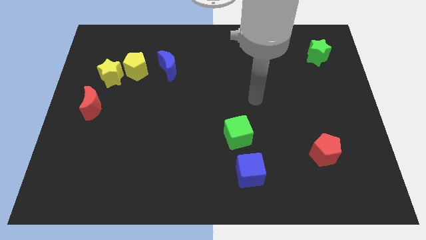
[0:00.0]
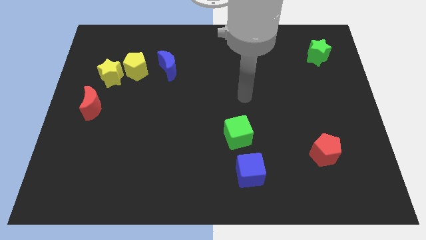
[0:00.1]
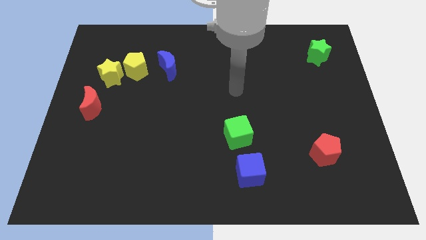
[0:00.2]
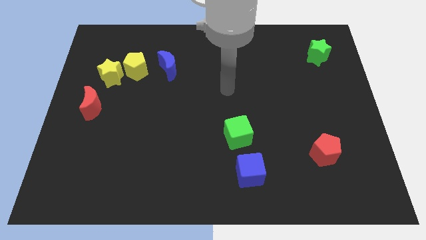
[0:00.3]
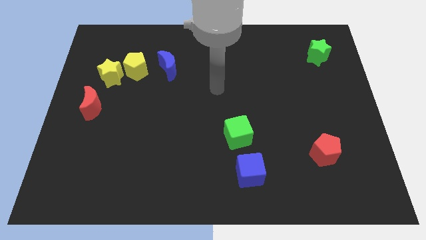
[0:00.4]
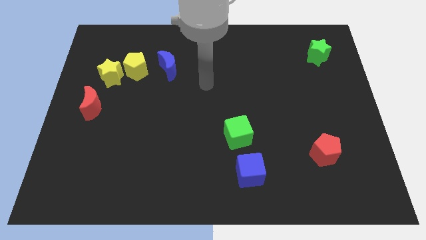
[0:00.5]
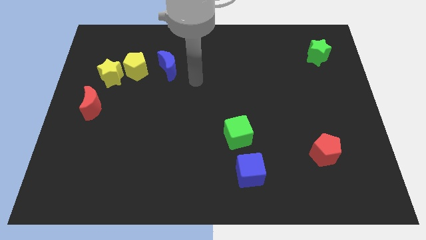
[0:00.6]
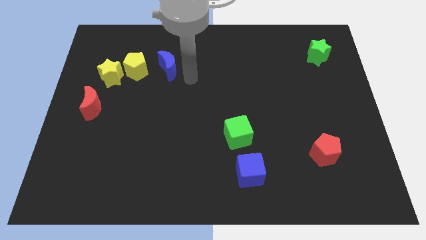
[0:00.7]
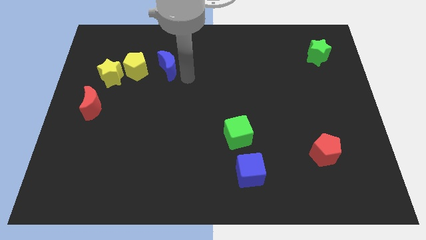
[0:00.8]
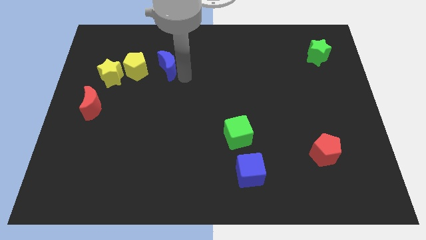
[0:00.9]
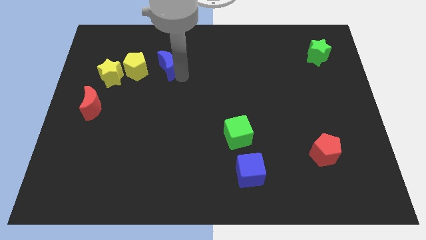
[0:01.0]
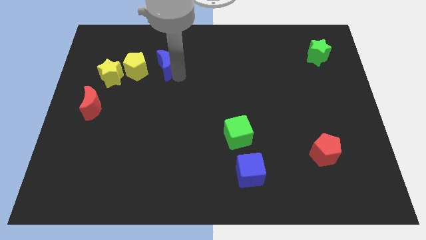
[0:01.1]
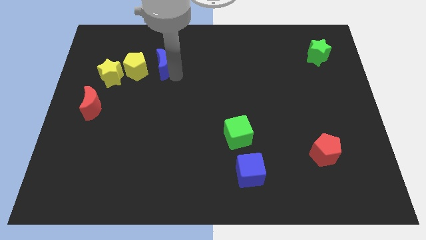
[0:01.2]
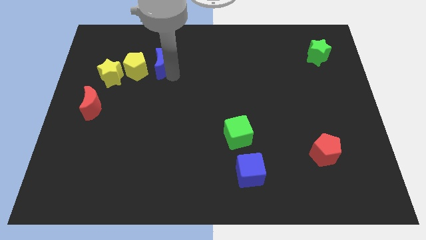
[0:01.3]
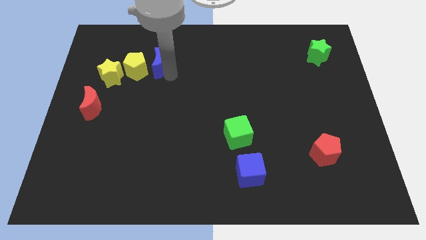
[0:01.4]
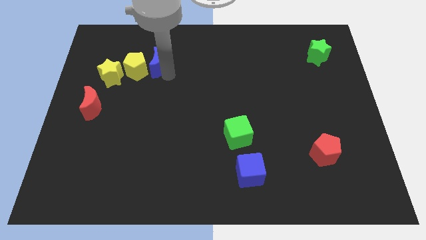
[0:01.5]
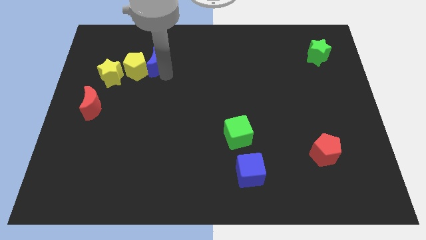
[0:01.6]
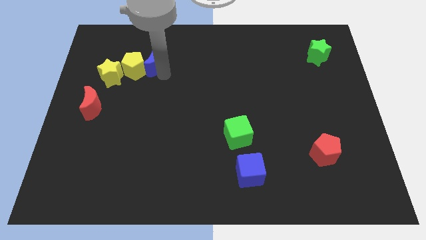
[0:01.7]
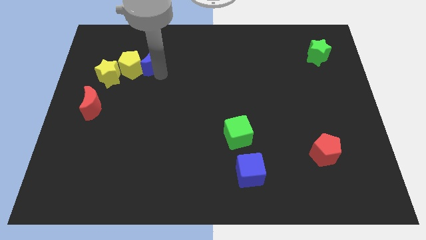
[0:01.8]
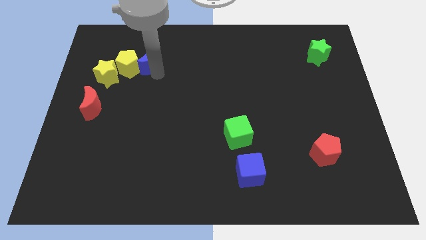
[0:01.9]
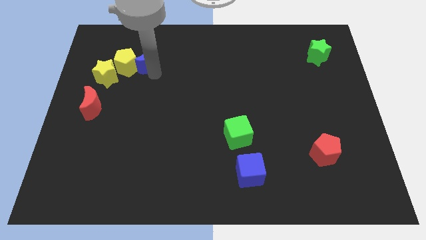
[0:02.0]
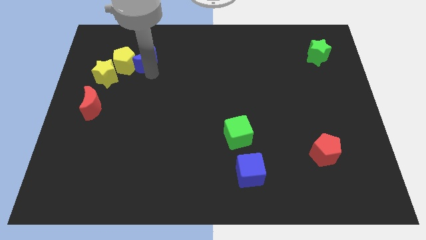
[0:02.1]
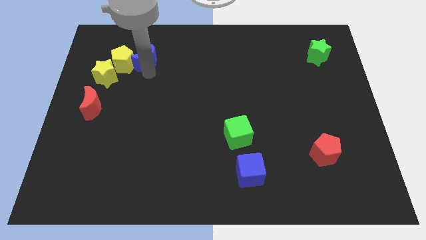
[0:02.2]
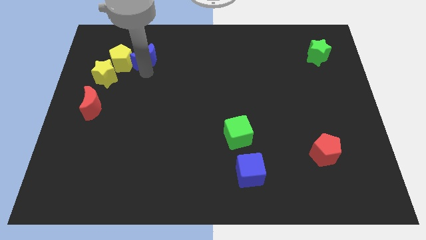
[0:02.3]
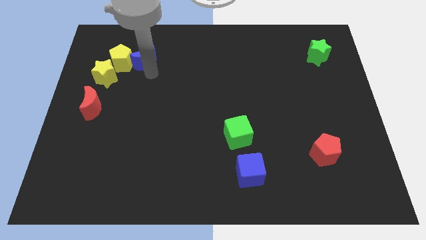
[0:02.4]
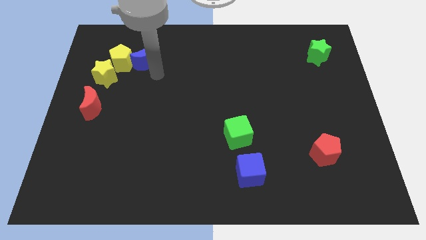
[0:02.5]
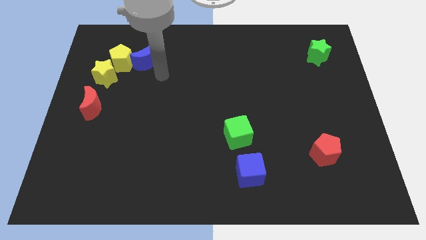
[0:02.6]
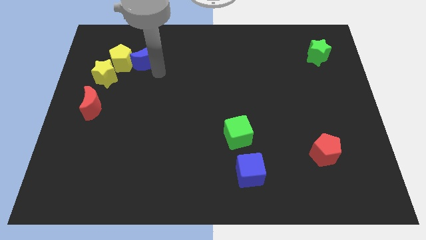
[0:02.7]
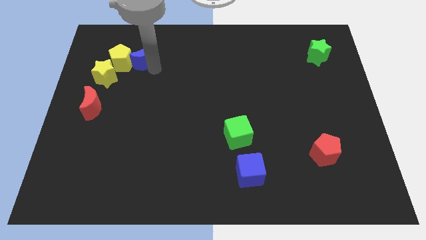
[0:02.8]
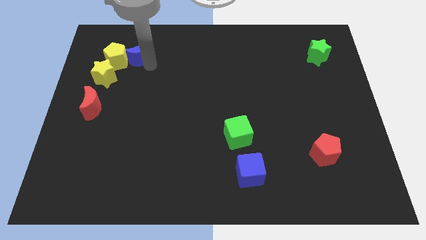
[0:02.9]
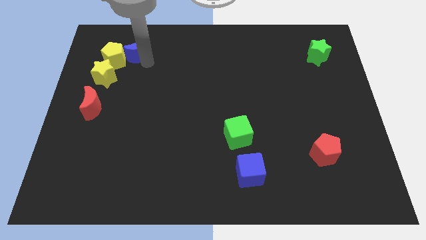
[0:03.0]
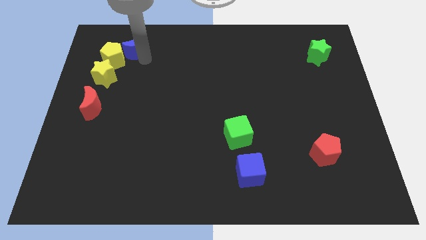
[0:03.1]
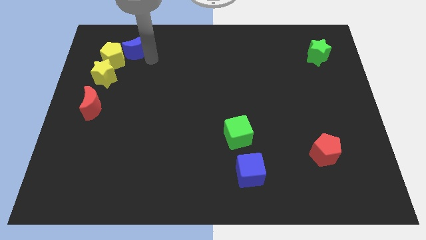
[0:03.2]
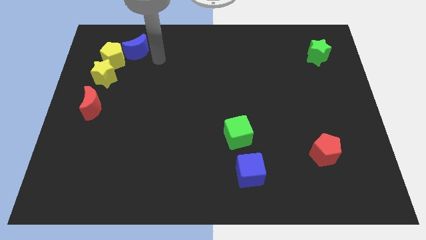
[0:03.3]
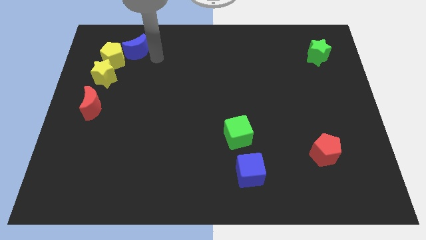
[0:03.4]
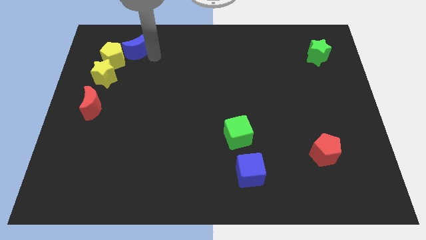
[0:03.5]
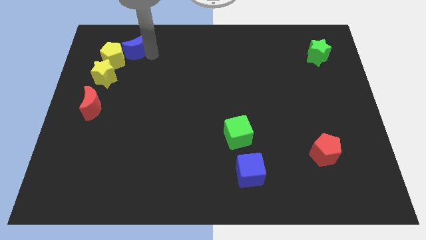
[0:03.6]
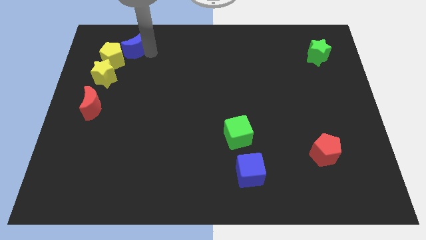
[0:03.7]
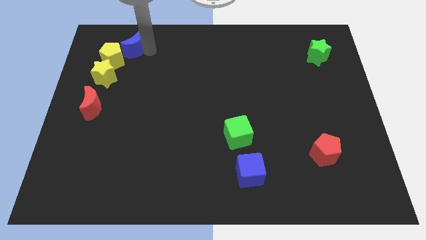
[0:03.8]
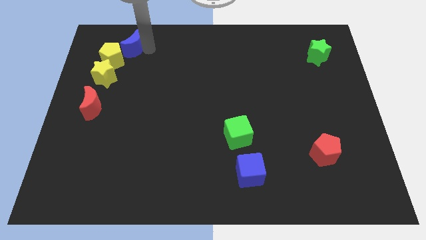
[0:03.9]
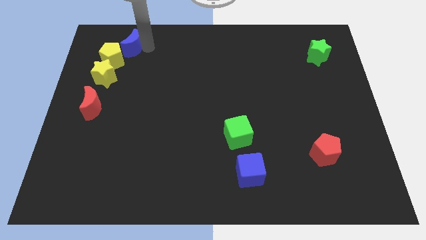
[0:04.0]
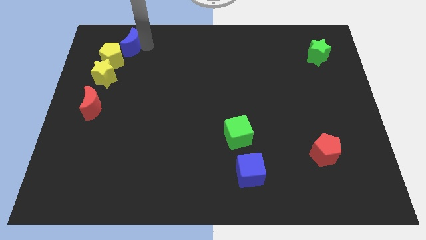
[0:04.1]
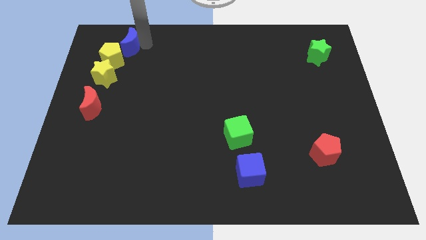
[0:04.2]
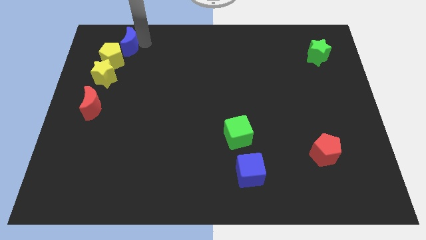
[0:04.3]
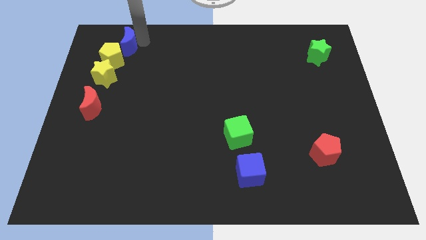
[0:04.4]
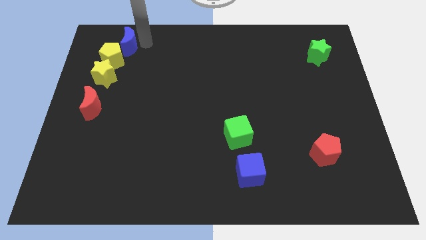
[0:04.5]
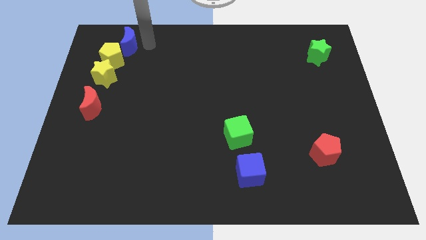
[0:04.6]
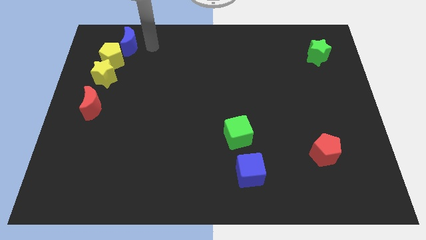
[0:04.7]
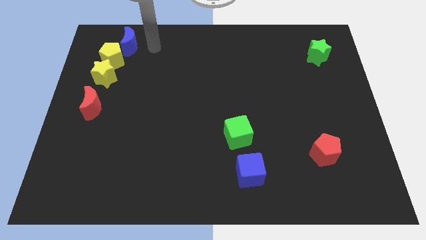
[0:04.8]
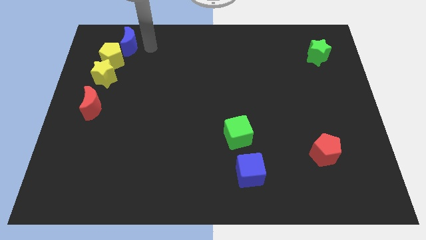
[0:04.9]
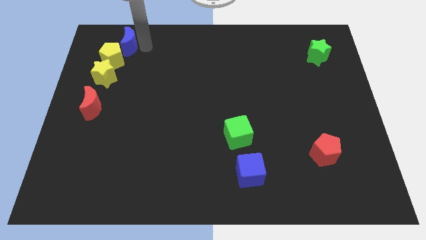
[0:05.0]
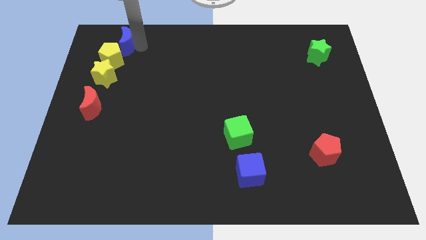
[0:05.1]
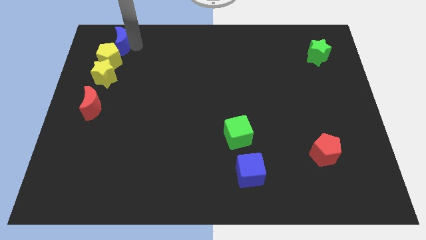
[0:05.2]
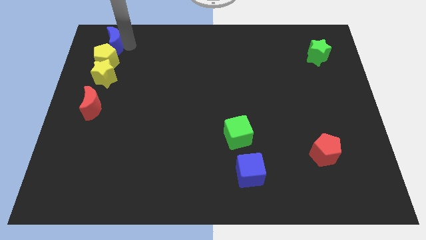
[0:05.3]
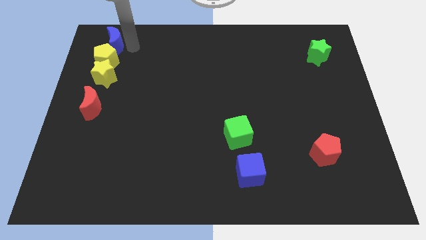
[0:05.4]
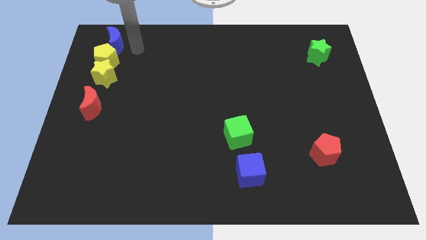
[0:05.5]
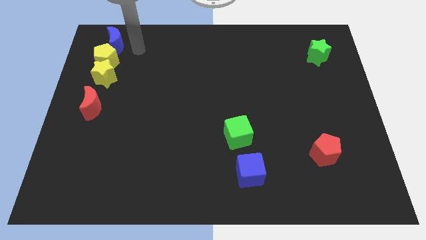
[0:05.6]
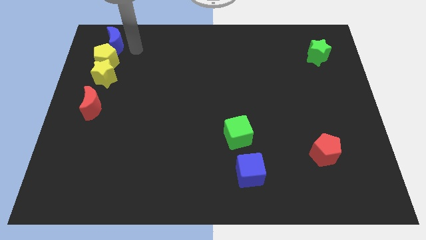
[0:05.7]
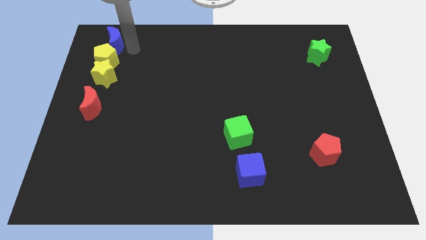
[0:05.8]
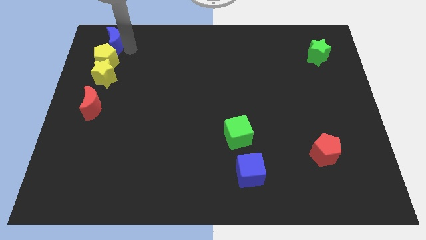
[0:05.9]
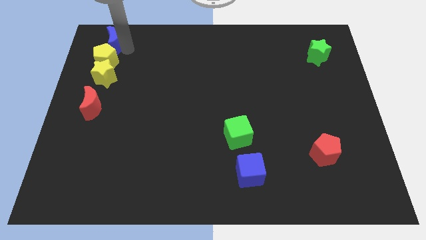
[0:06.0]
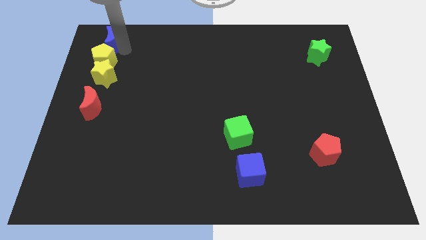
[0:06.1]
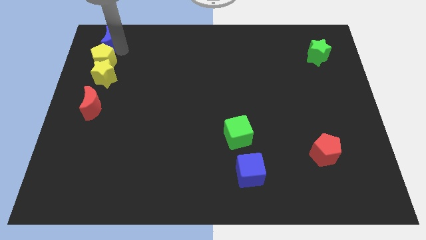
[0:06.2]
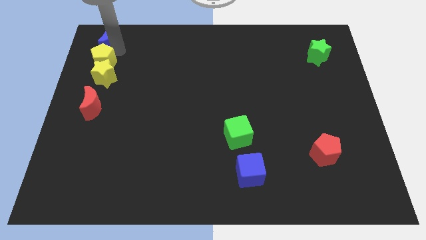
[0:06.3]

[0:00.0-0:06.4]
slide the blue moon to the top left corner
